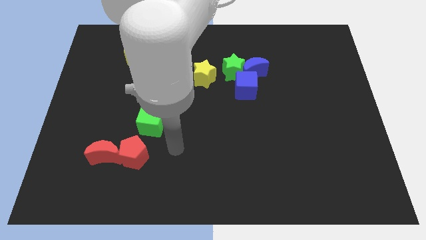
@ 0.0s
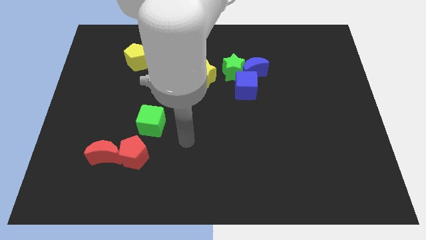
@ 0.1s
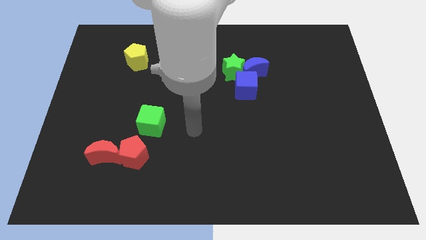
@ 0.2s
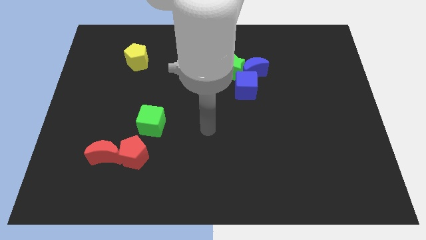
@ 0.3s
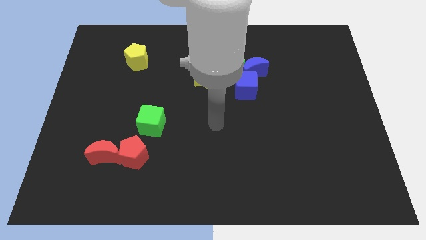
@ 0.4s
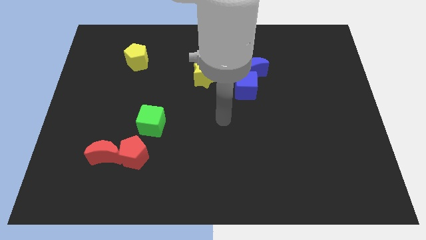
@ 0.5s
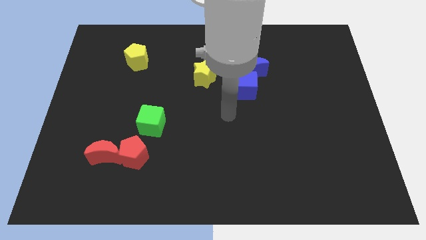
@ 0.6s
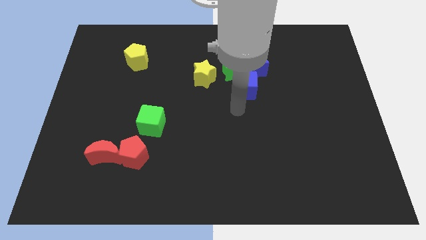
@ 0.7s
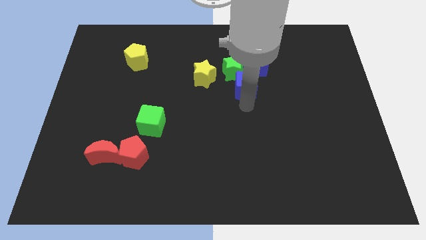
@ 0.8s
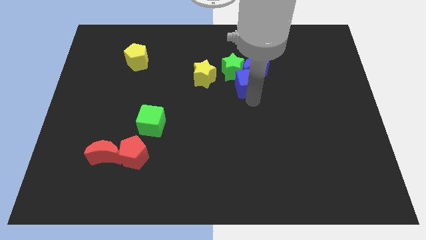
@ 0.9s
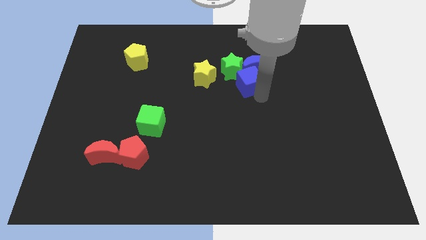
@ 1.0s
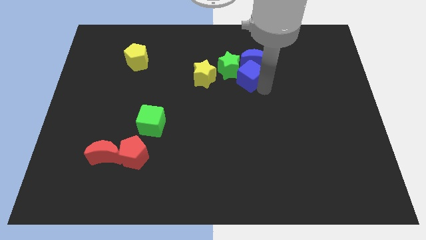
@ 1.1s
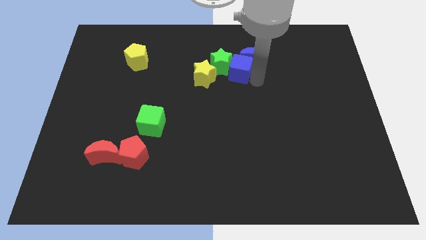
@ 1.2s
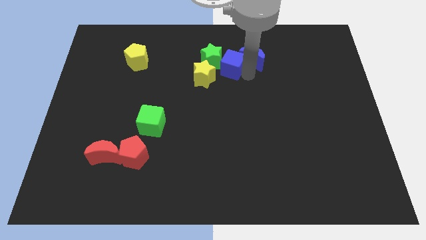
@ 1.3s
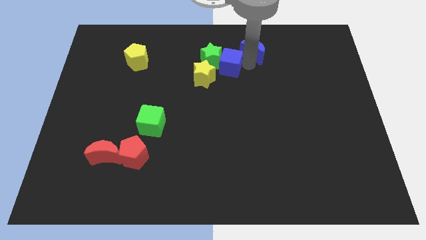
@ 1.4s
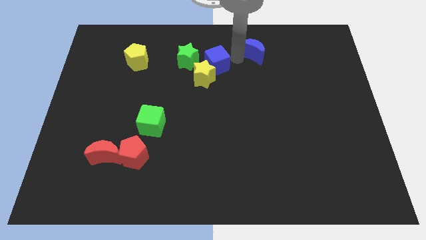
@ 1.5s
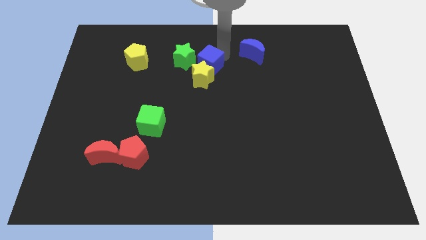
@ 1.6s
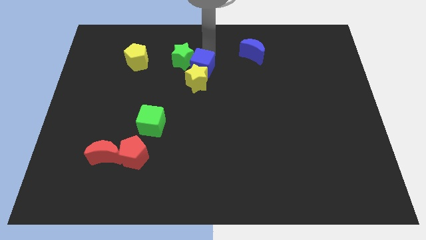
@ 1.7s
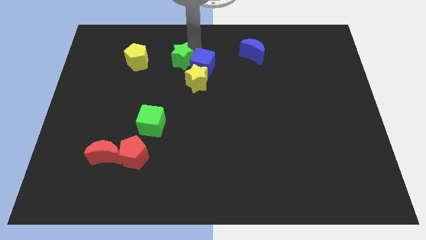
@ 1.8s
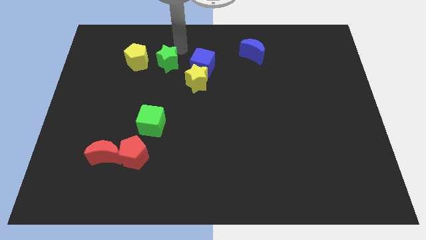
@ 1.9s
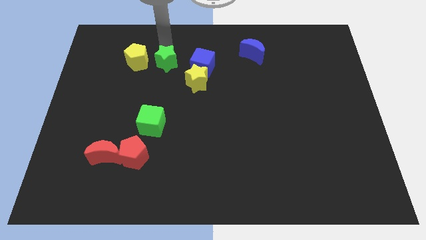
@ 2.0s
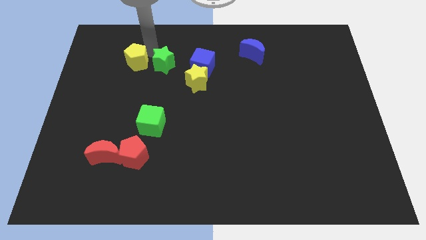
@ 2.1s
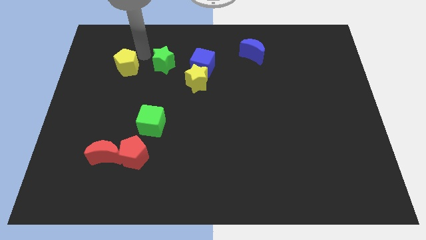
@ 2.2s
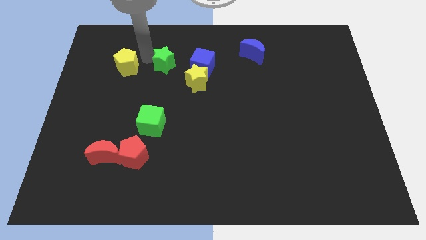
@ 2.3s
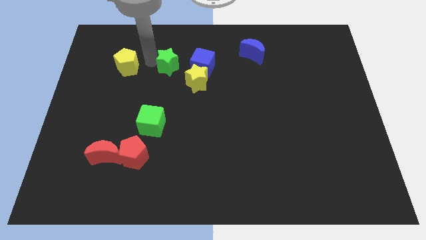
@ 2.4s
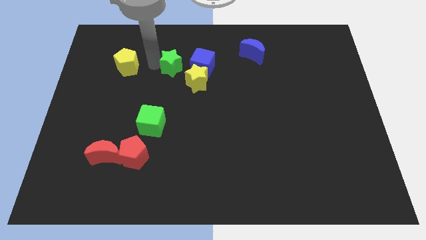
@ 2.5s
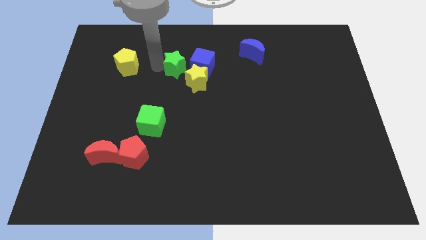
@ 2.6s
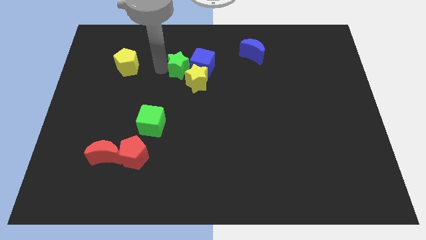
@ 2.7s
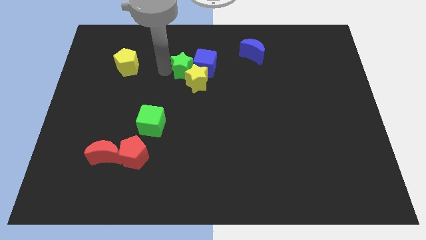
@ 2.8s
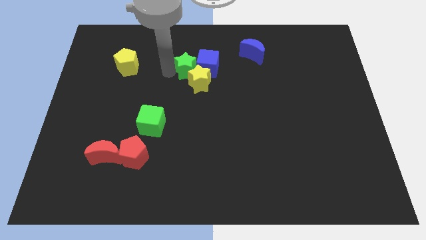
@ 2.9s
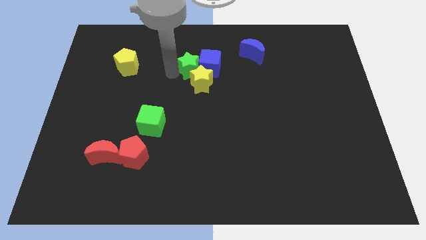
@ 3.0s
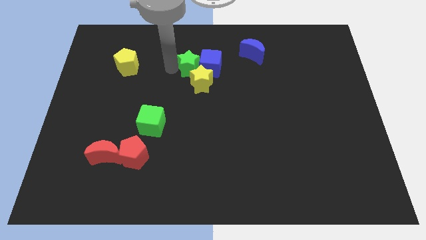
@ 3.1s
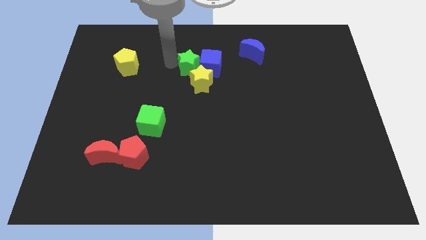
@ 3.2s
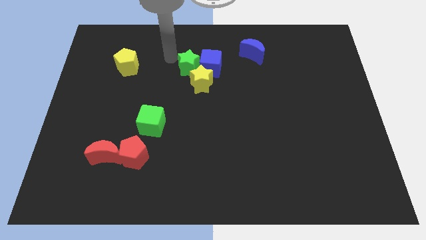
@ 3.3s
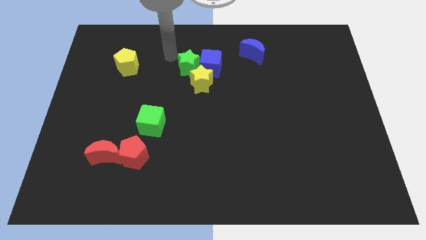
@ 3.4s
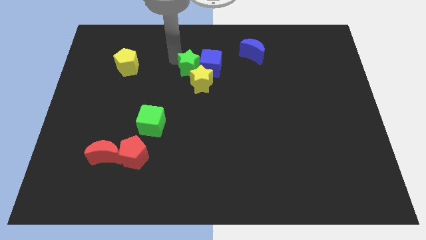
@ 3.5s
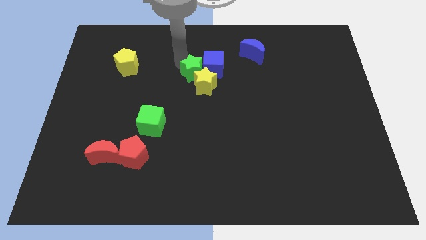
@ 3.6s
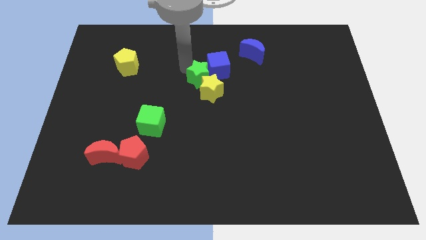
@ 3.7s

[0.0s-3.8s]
slide the green star slightly diagonally down and to the left

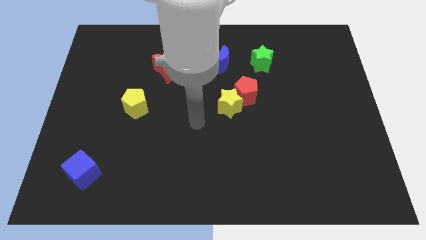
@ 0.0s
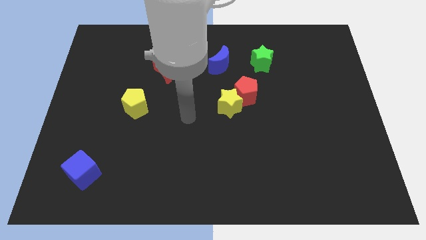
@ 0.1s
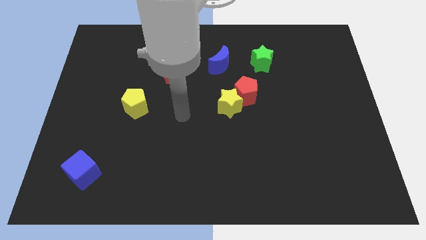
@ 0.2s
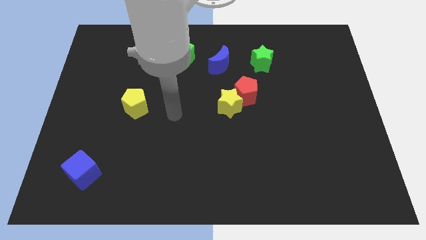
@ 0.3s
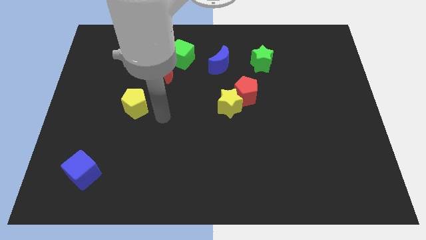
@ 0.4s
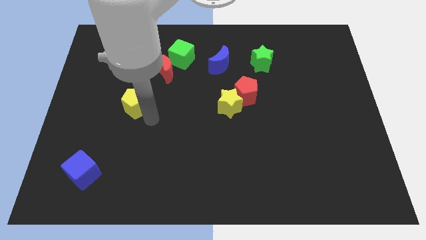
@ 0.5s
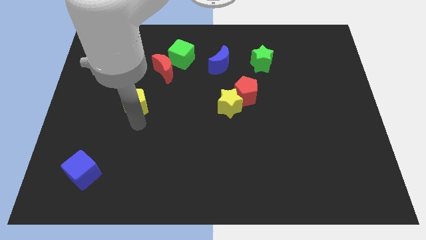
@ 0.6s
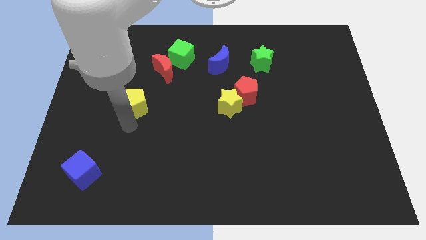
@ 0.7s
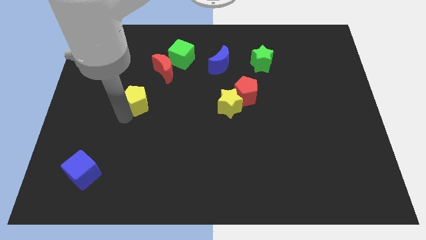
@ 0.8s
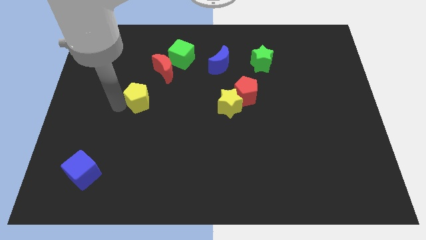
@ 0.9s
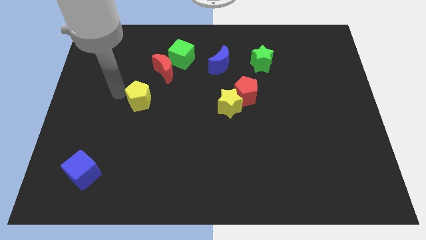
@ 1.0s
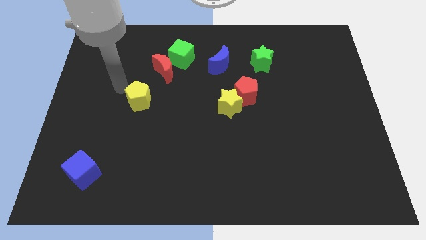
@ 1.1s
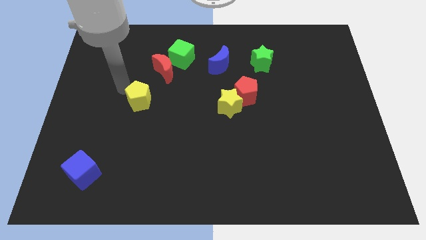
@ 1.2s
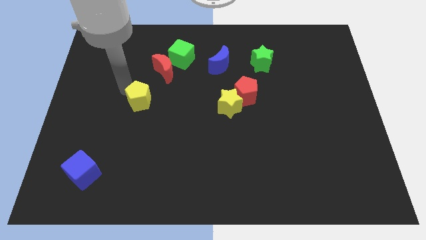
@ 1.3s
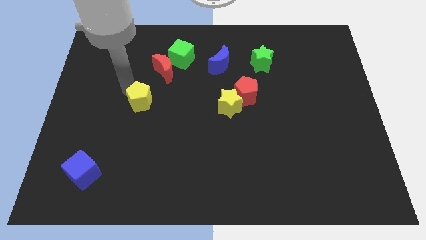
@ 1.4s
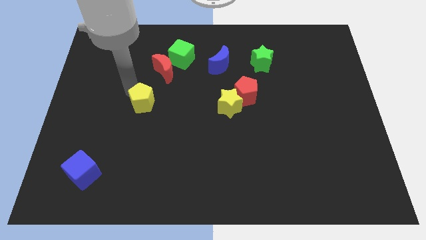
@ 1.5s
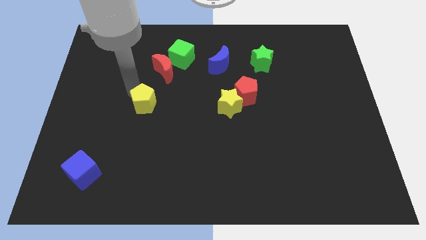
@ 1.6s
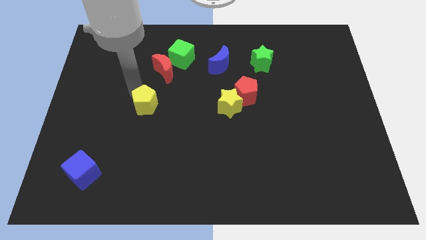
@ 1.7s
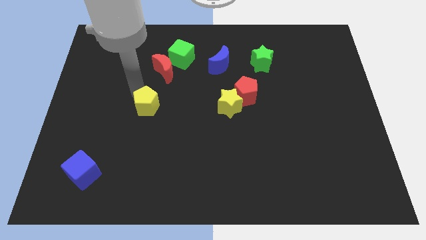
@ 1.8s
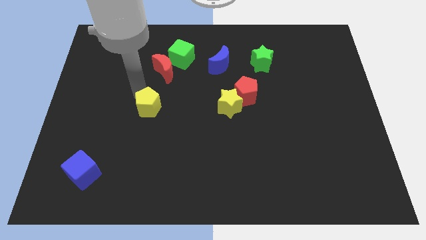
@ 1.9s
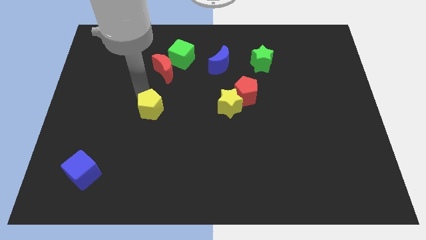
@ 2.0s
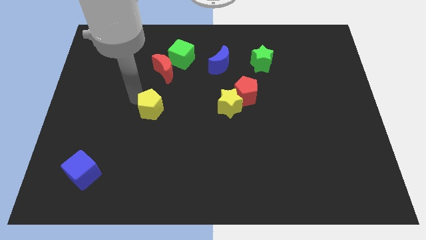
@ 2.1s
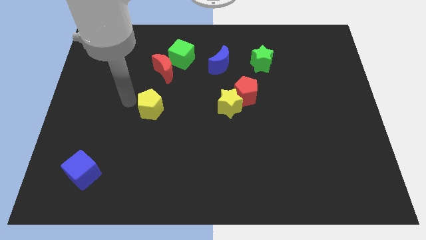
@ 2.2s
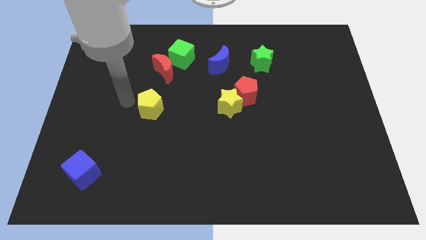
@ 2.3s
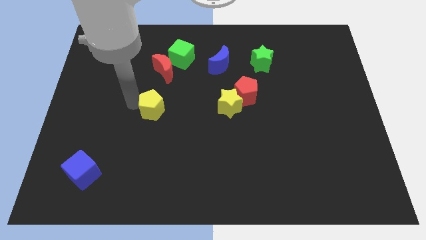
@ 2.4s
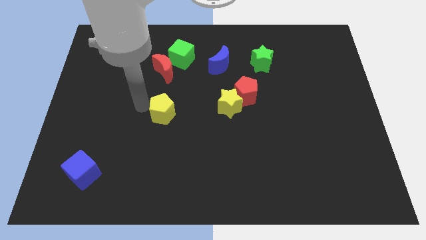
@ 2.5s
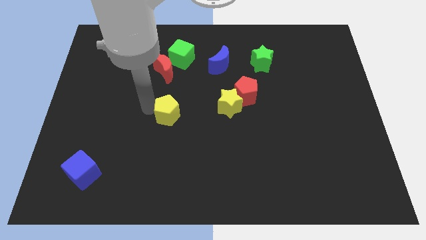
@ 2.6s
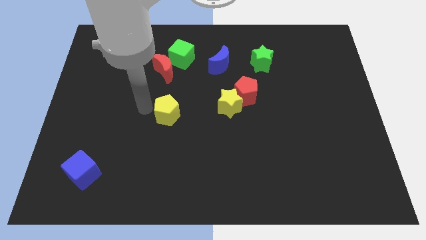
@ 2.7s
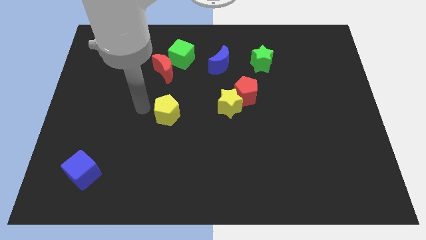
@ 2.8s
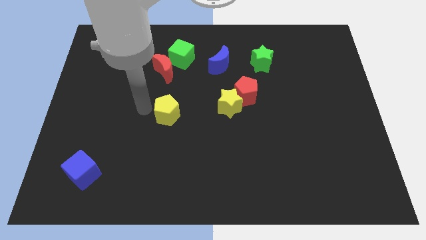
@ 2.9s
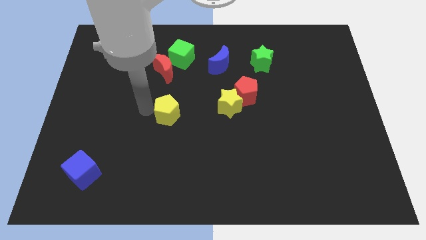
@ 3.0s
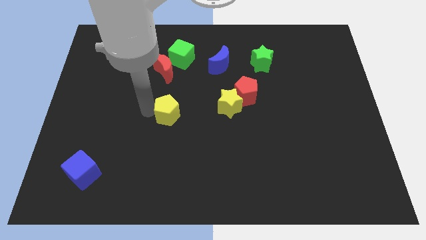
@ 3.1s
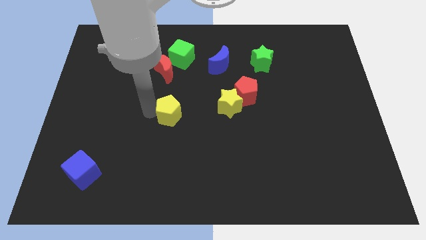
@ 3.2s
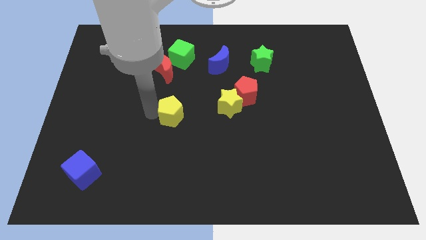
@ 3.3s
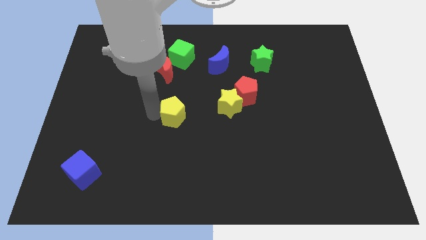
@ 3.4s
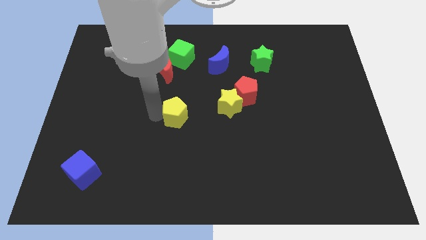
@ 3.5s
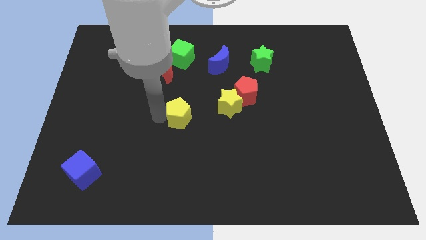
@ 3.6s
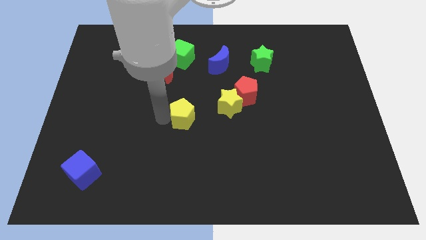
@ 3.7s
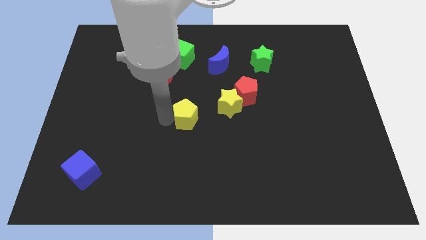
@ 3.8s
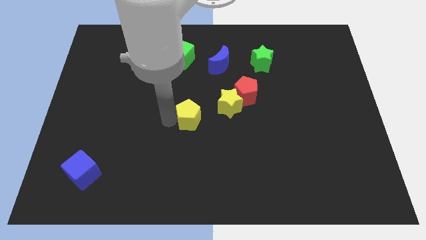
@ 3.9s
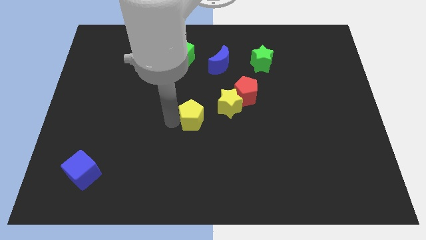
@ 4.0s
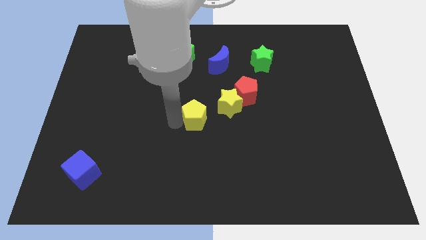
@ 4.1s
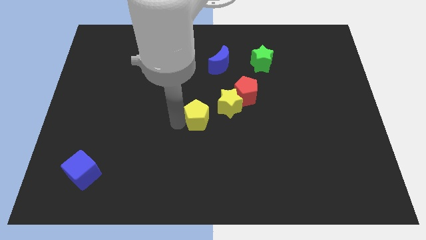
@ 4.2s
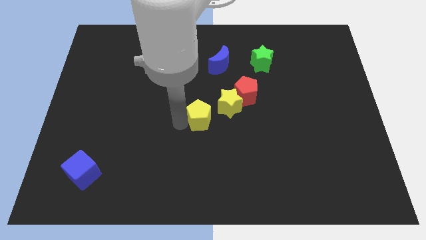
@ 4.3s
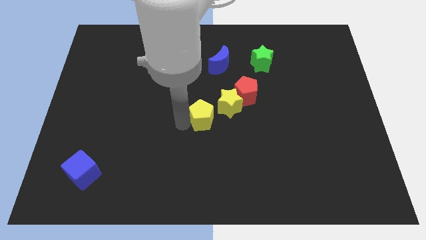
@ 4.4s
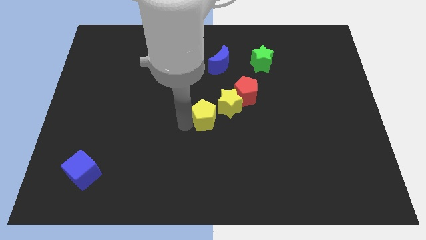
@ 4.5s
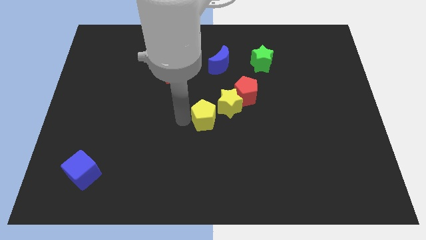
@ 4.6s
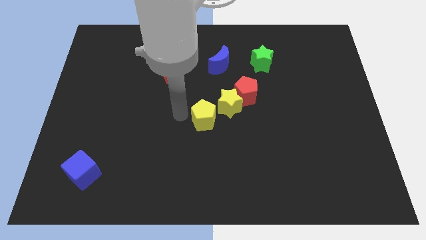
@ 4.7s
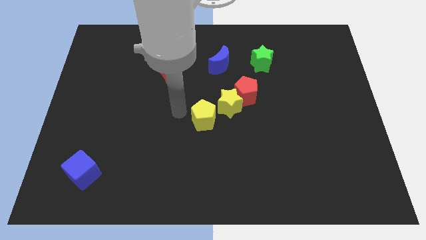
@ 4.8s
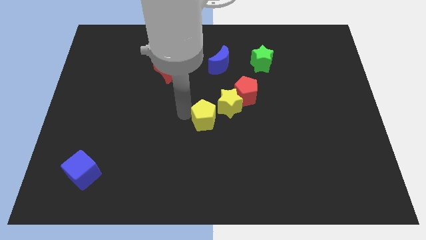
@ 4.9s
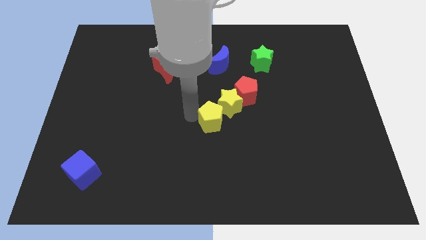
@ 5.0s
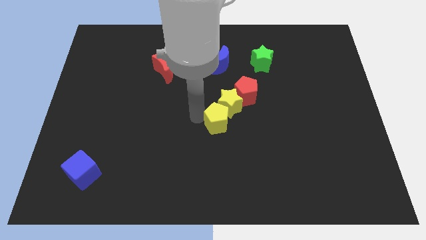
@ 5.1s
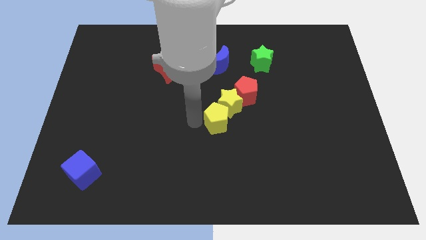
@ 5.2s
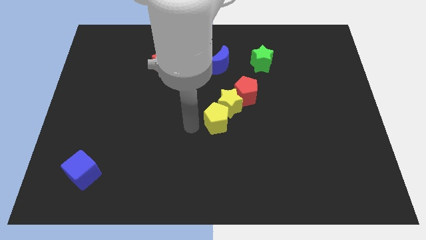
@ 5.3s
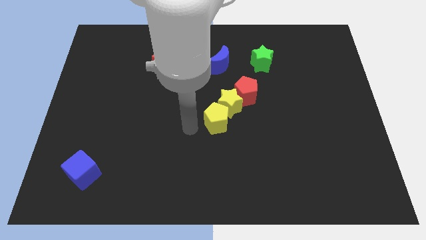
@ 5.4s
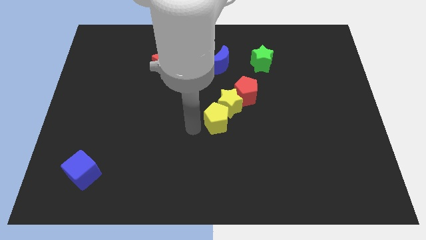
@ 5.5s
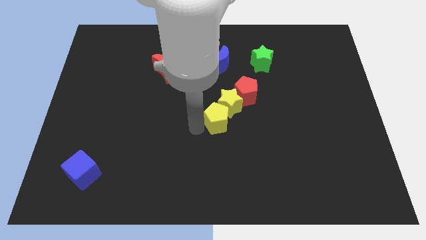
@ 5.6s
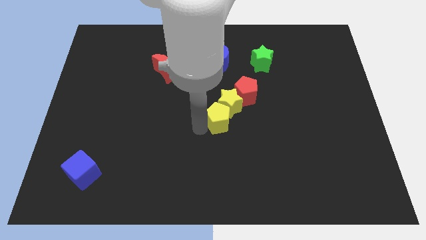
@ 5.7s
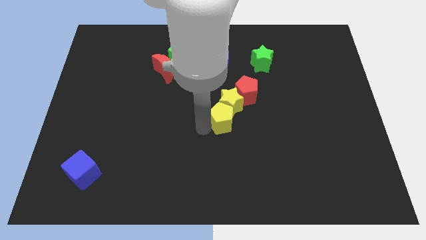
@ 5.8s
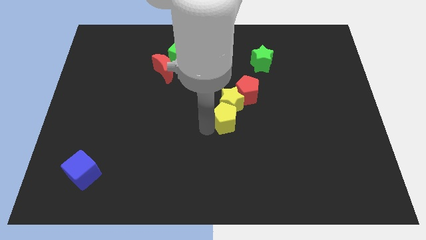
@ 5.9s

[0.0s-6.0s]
push the yellow pentagon right
